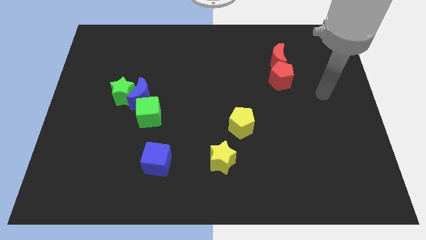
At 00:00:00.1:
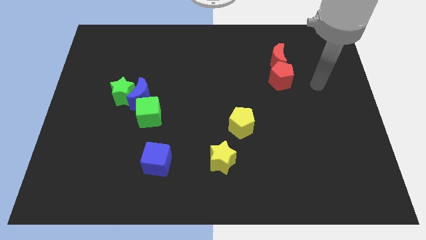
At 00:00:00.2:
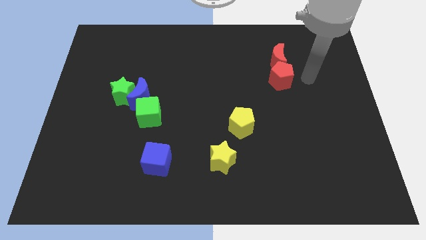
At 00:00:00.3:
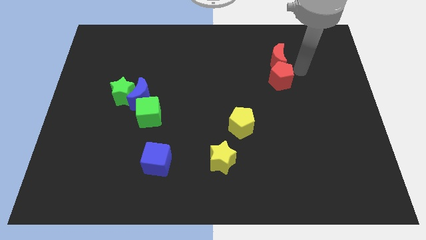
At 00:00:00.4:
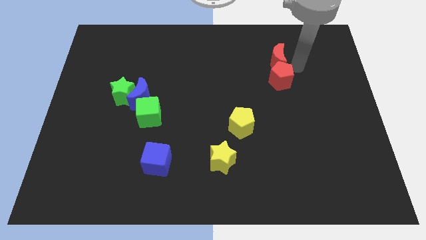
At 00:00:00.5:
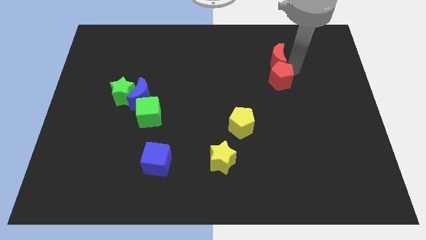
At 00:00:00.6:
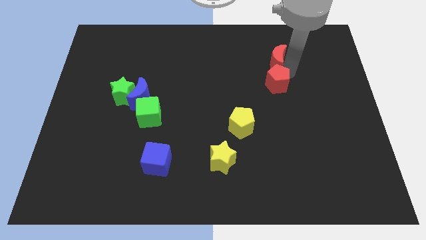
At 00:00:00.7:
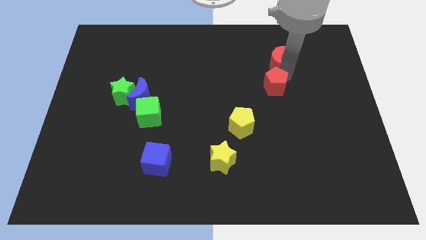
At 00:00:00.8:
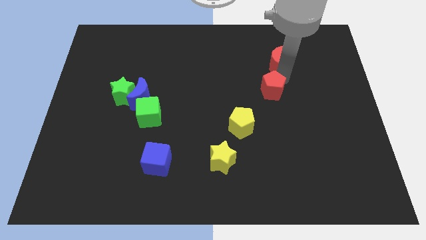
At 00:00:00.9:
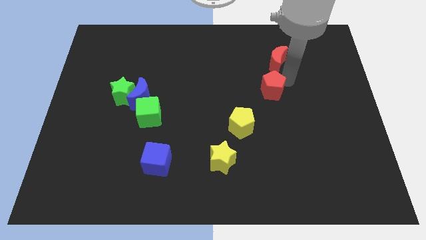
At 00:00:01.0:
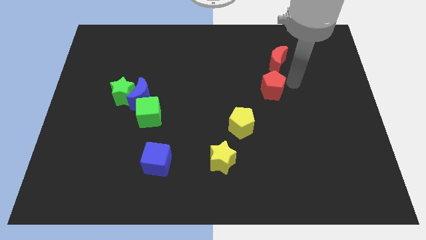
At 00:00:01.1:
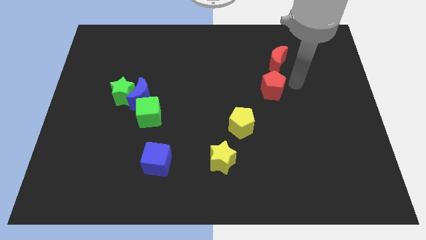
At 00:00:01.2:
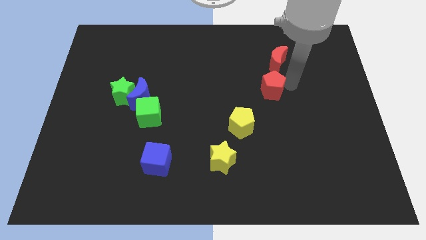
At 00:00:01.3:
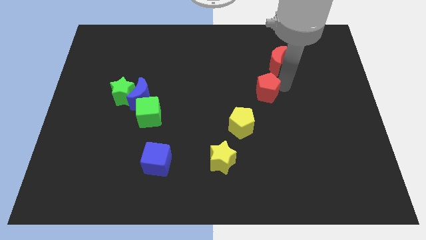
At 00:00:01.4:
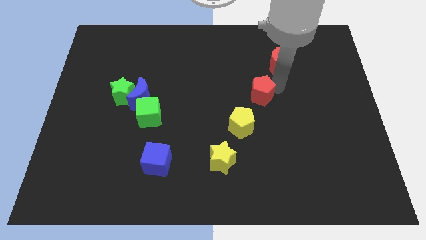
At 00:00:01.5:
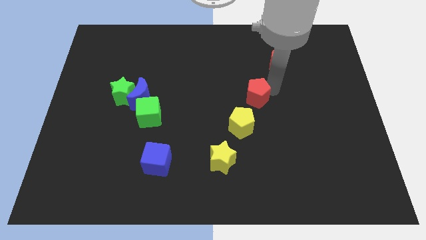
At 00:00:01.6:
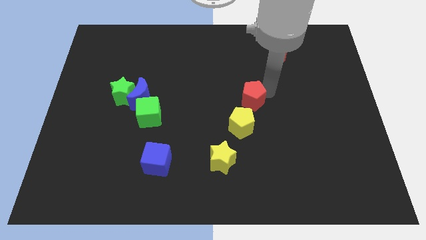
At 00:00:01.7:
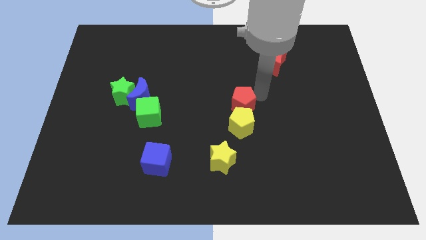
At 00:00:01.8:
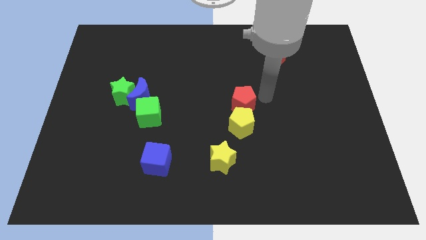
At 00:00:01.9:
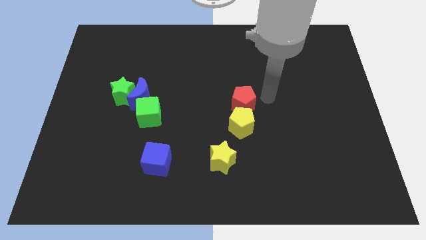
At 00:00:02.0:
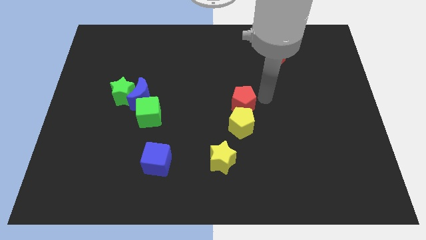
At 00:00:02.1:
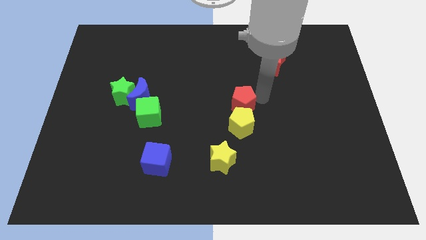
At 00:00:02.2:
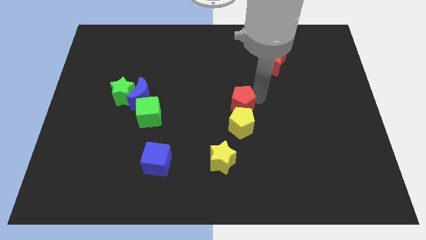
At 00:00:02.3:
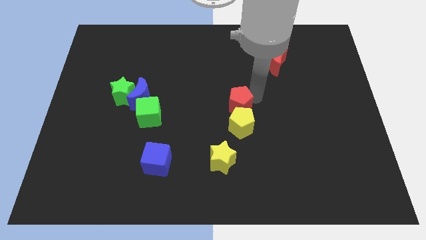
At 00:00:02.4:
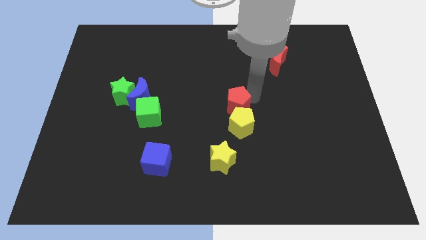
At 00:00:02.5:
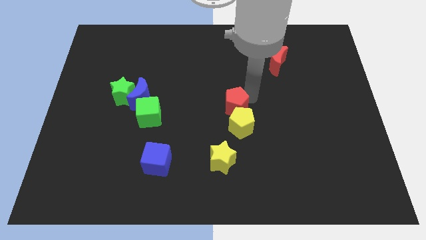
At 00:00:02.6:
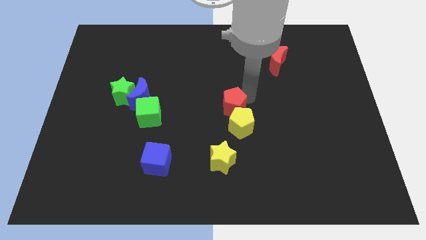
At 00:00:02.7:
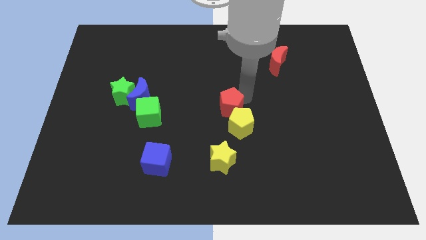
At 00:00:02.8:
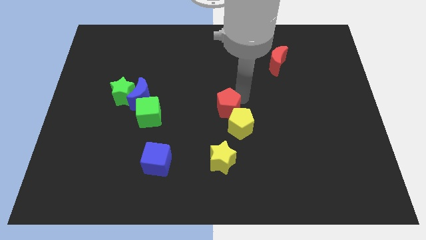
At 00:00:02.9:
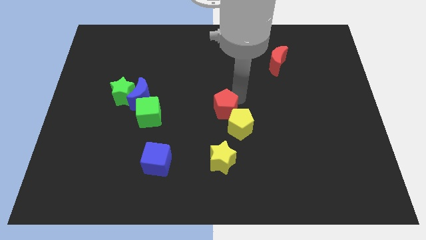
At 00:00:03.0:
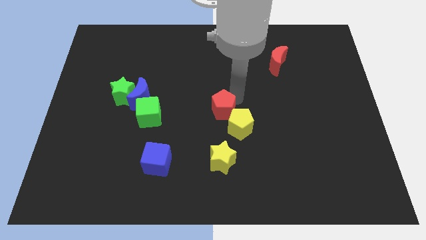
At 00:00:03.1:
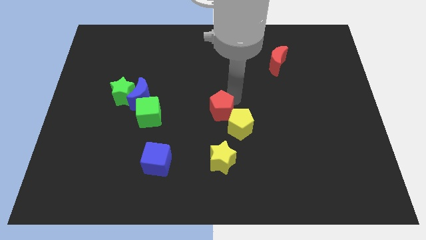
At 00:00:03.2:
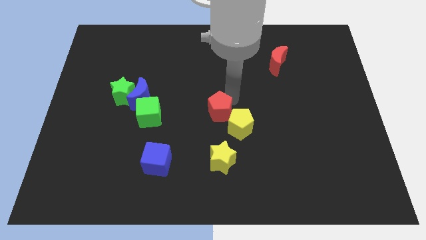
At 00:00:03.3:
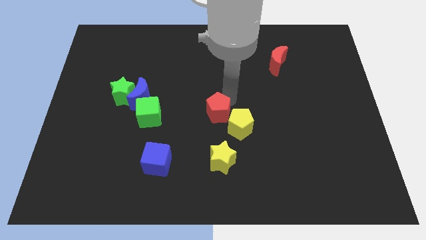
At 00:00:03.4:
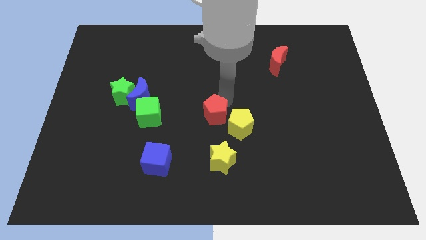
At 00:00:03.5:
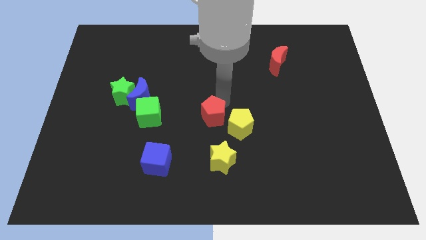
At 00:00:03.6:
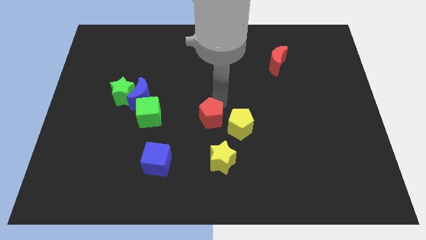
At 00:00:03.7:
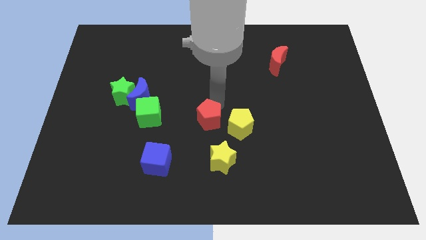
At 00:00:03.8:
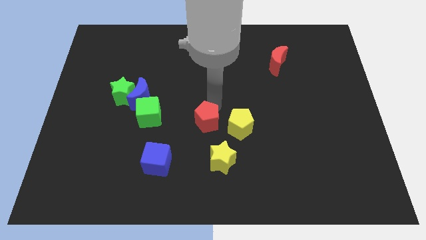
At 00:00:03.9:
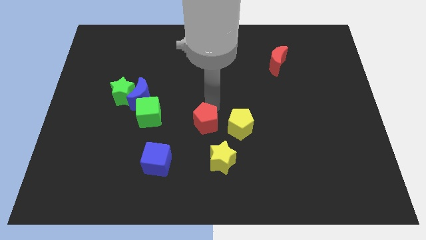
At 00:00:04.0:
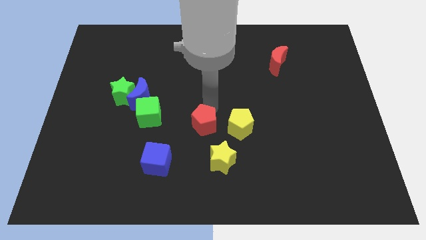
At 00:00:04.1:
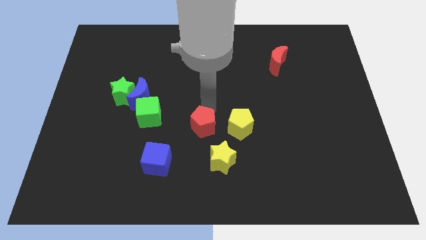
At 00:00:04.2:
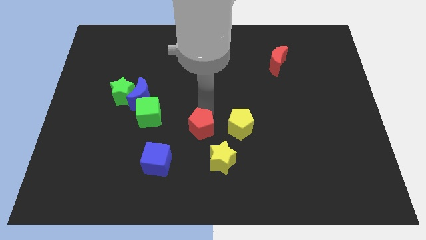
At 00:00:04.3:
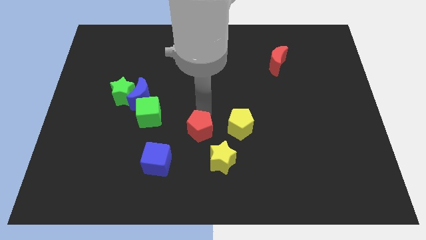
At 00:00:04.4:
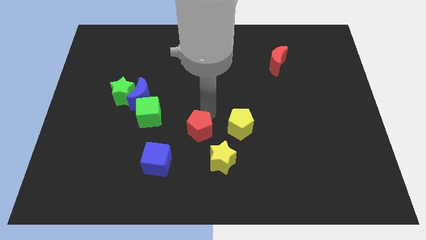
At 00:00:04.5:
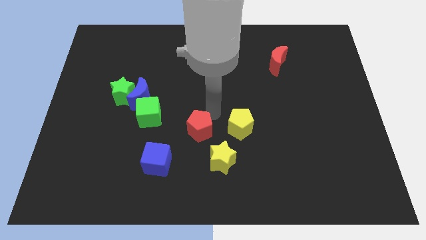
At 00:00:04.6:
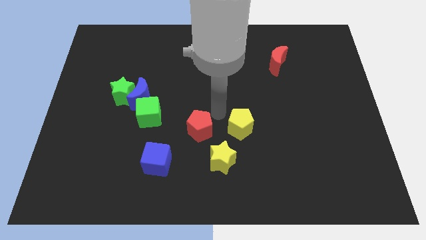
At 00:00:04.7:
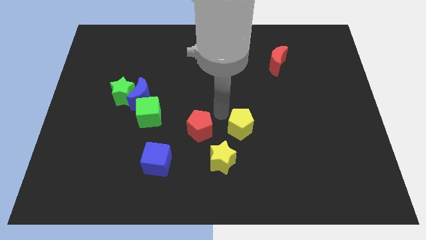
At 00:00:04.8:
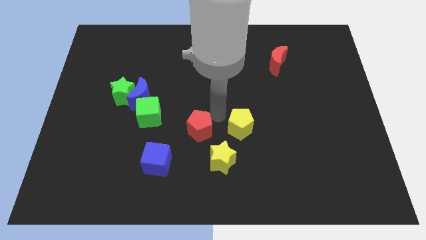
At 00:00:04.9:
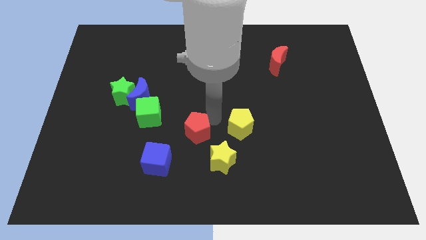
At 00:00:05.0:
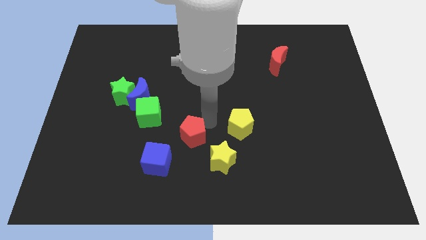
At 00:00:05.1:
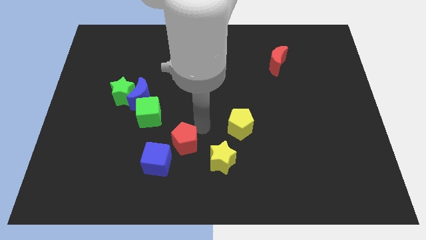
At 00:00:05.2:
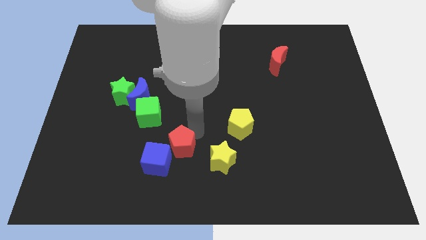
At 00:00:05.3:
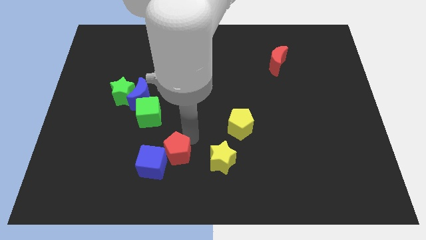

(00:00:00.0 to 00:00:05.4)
put the red pentagon towards the blue cube

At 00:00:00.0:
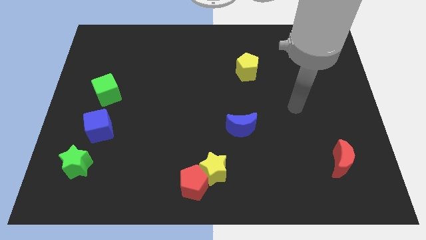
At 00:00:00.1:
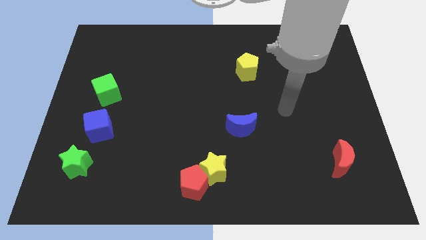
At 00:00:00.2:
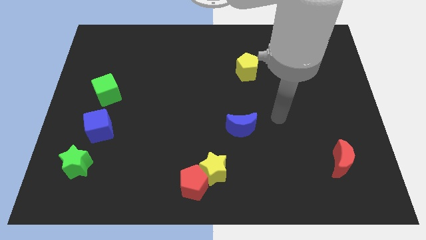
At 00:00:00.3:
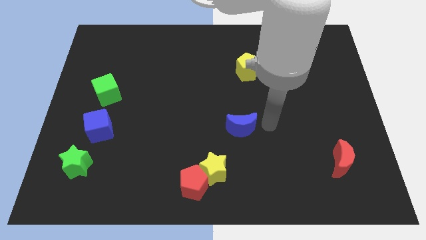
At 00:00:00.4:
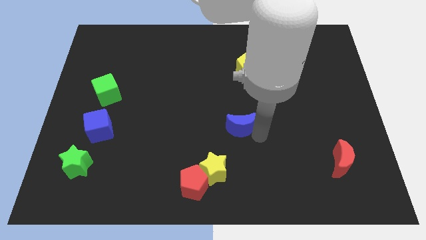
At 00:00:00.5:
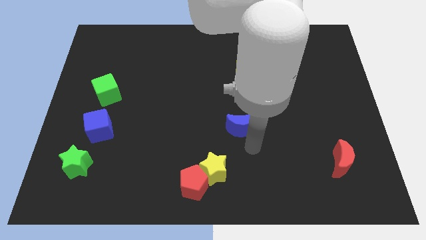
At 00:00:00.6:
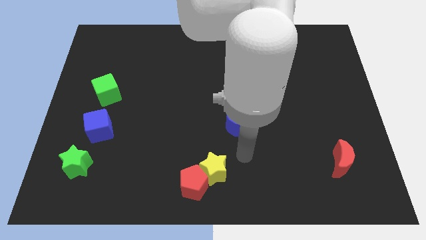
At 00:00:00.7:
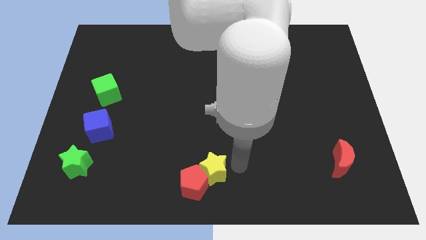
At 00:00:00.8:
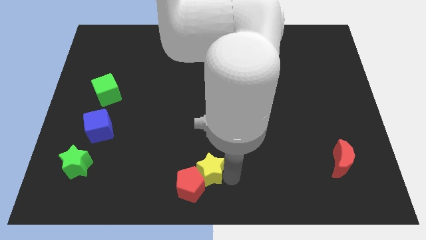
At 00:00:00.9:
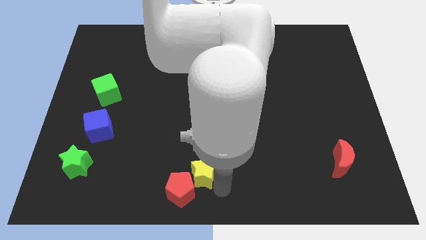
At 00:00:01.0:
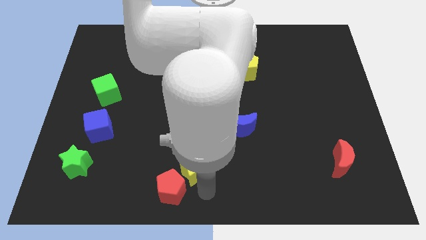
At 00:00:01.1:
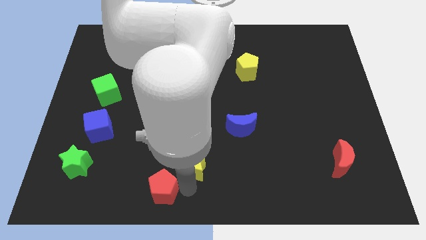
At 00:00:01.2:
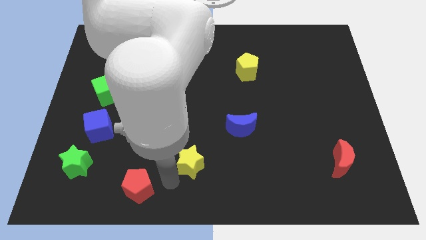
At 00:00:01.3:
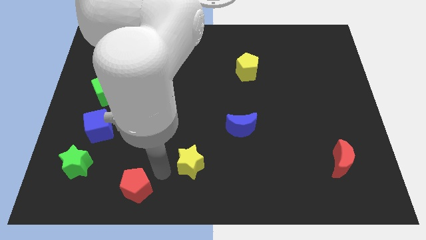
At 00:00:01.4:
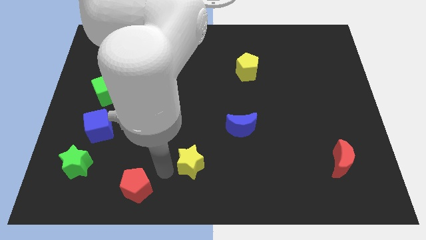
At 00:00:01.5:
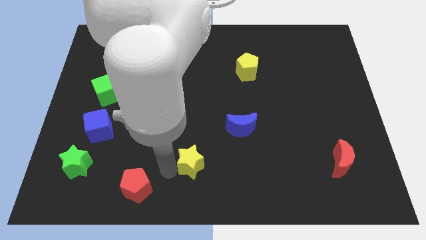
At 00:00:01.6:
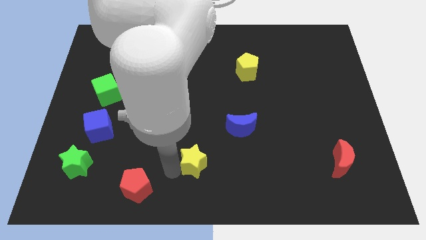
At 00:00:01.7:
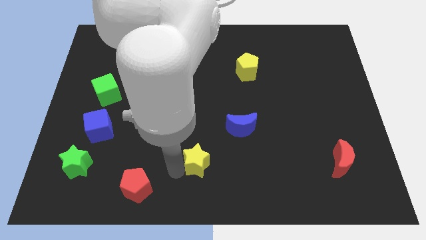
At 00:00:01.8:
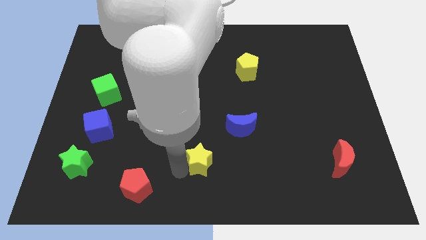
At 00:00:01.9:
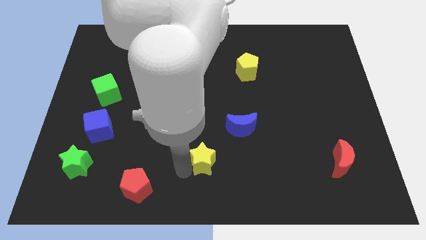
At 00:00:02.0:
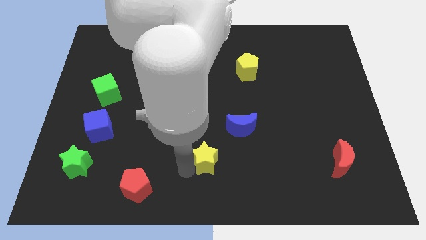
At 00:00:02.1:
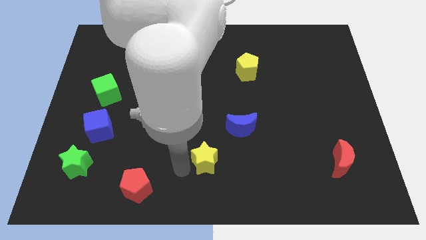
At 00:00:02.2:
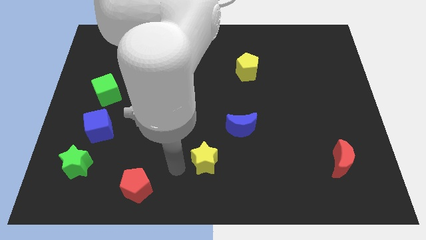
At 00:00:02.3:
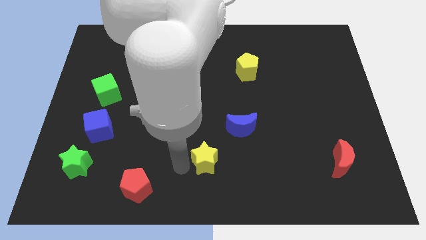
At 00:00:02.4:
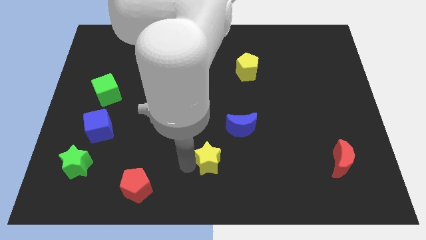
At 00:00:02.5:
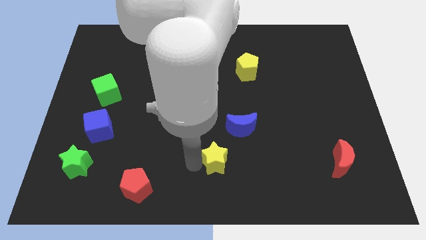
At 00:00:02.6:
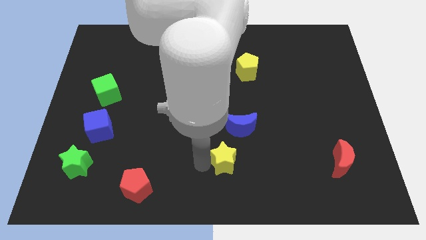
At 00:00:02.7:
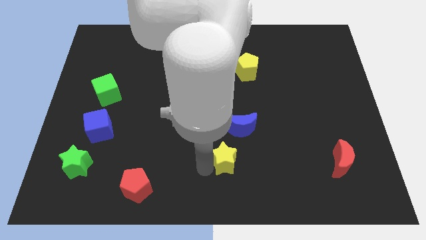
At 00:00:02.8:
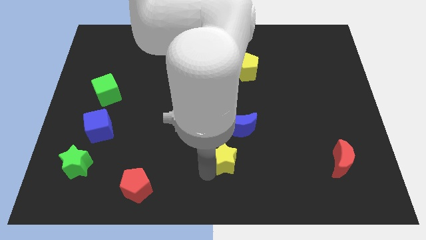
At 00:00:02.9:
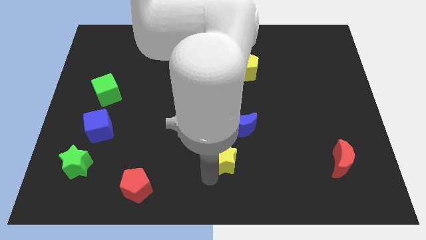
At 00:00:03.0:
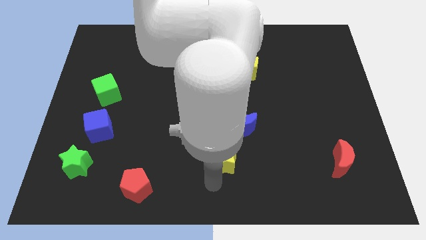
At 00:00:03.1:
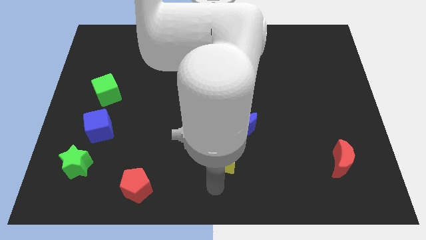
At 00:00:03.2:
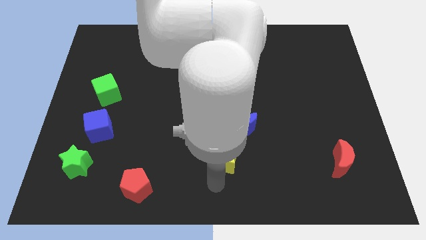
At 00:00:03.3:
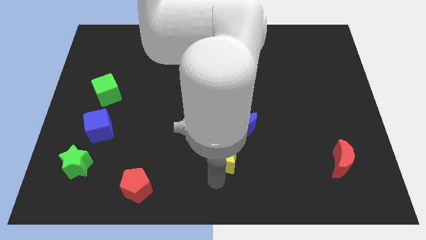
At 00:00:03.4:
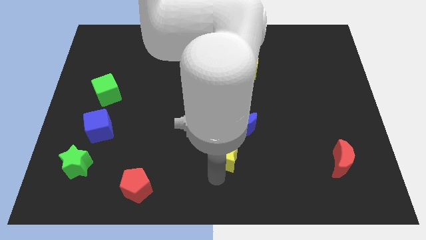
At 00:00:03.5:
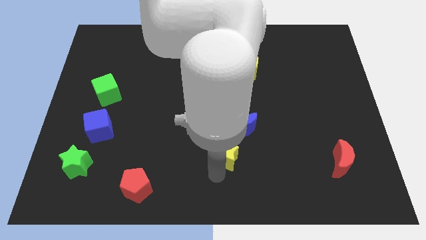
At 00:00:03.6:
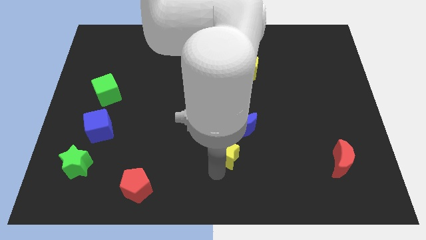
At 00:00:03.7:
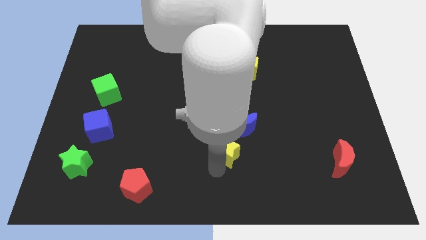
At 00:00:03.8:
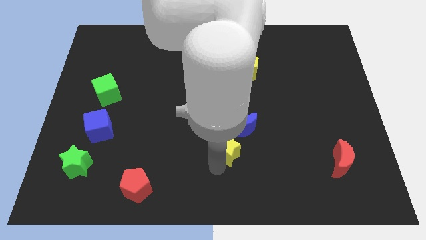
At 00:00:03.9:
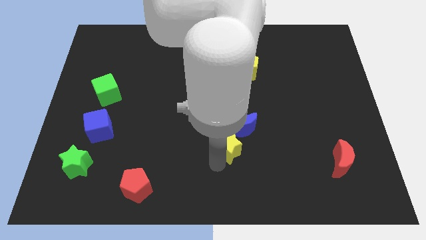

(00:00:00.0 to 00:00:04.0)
push the yellow star to the blue moon
